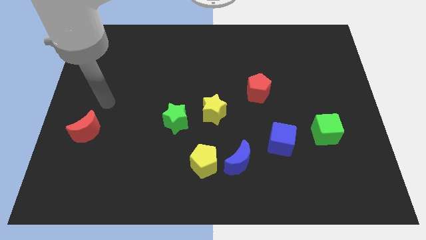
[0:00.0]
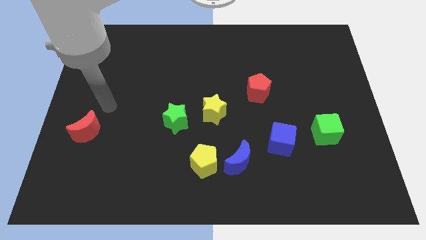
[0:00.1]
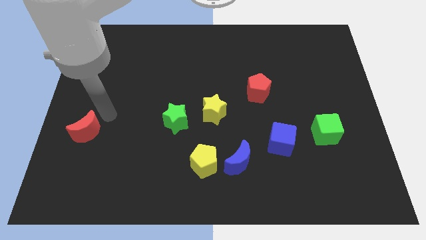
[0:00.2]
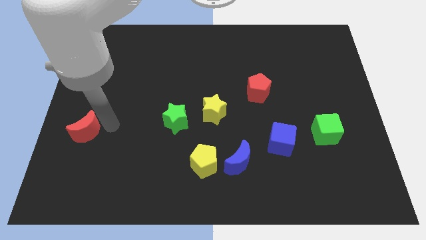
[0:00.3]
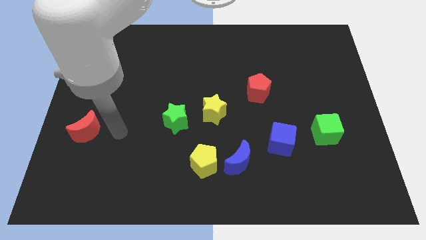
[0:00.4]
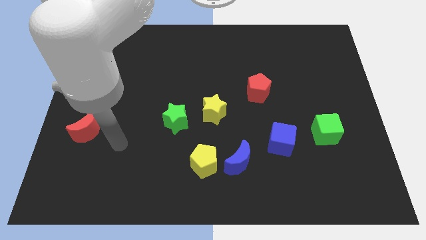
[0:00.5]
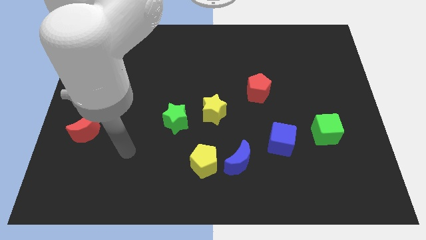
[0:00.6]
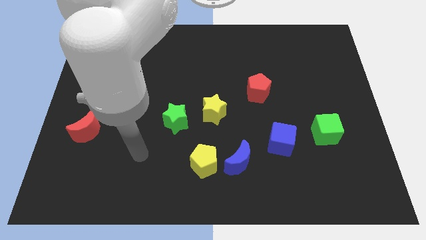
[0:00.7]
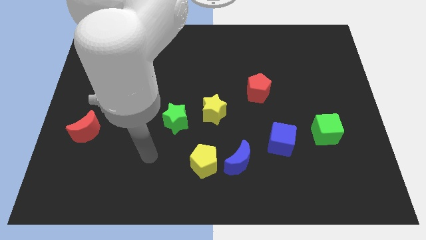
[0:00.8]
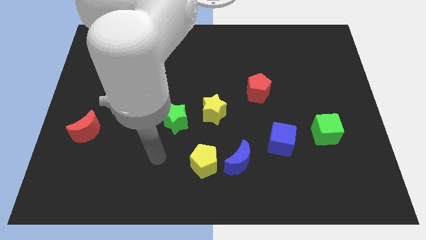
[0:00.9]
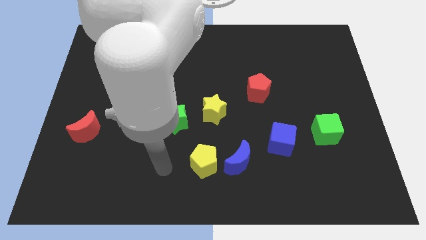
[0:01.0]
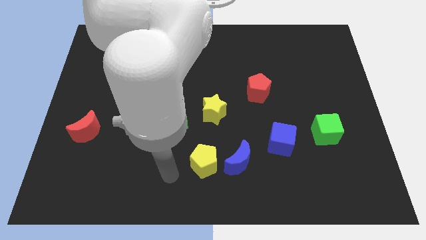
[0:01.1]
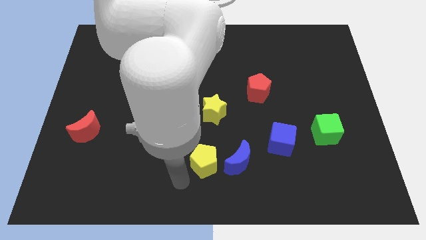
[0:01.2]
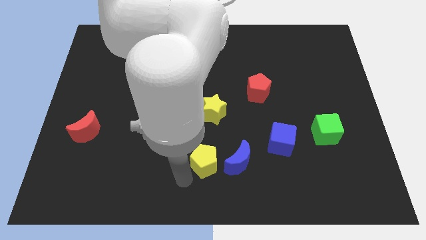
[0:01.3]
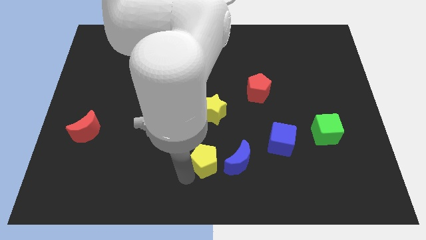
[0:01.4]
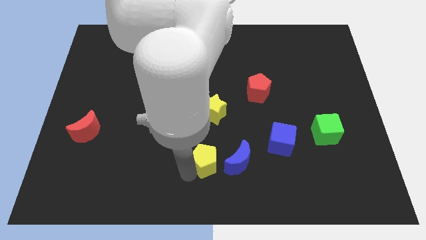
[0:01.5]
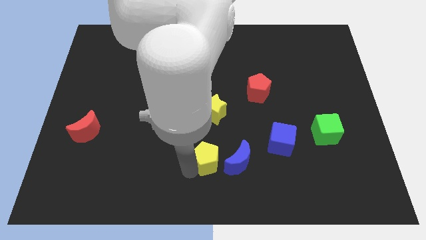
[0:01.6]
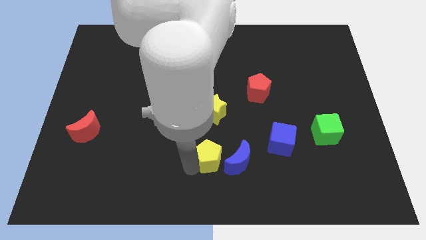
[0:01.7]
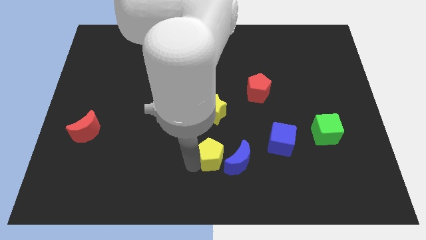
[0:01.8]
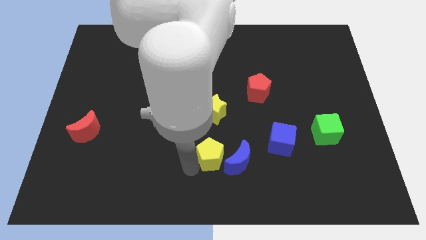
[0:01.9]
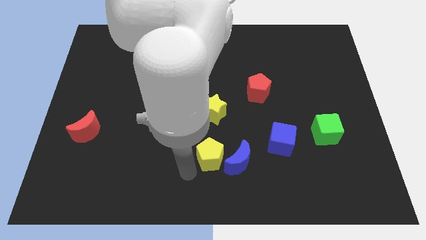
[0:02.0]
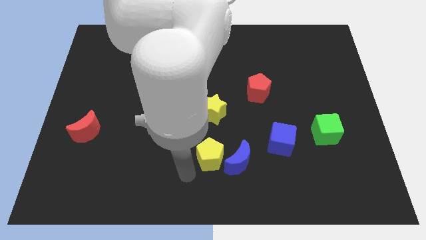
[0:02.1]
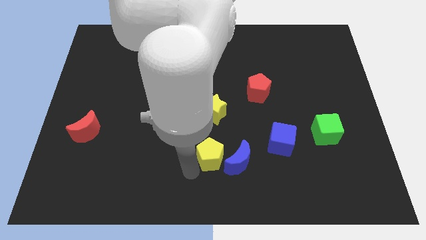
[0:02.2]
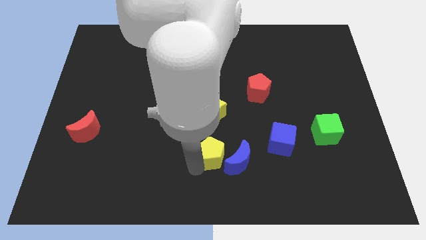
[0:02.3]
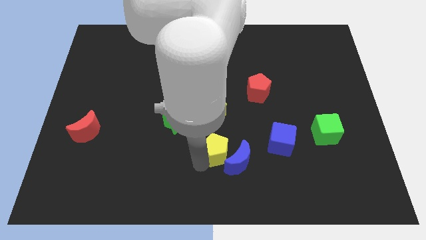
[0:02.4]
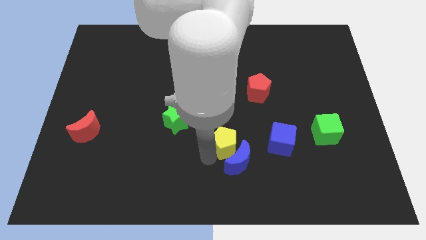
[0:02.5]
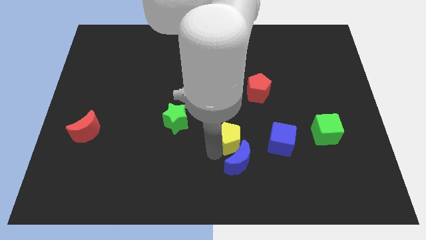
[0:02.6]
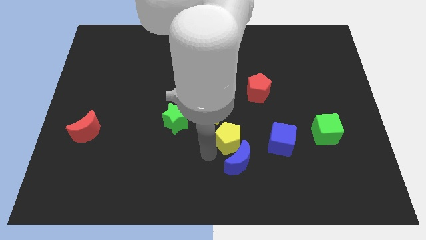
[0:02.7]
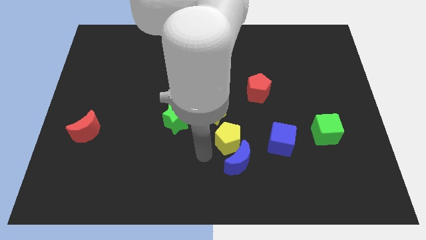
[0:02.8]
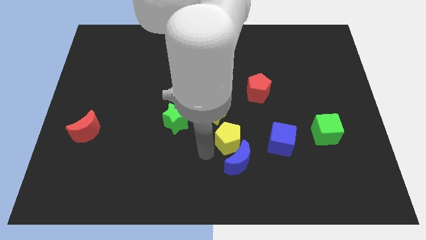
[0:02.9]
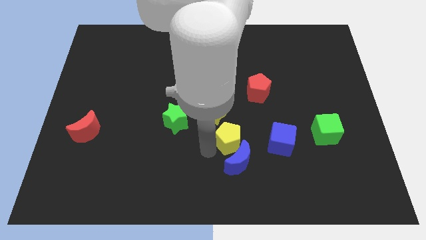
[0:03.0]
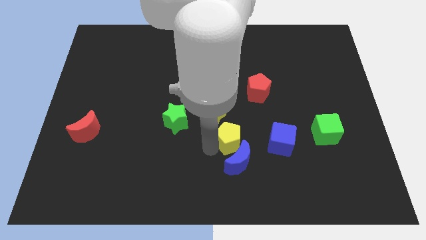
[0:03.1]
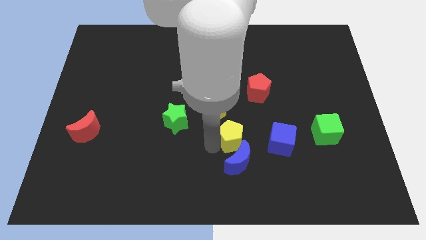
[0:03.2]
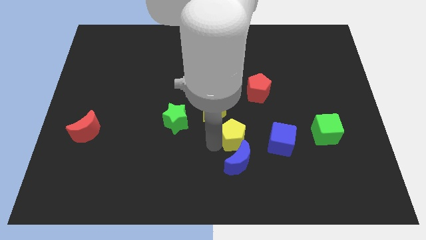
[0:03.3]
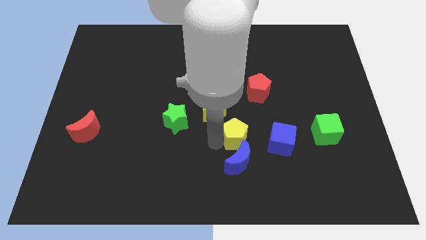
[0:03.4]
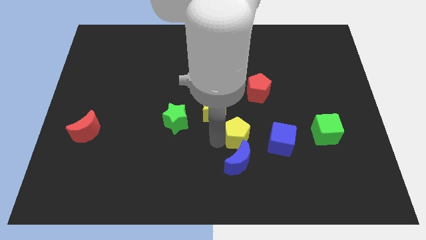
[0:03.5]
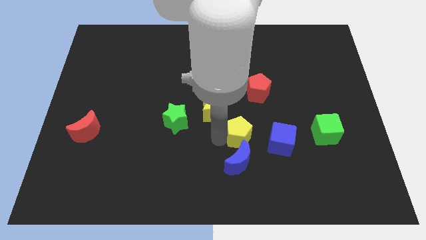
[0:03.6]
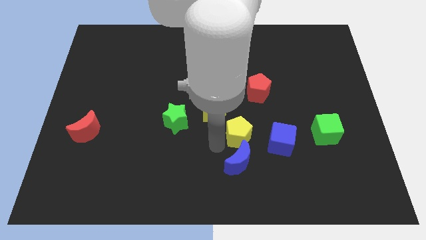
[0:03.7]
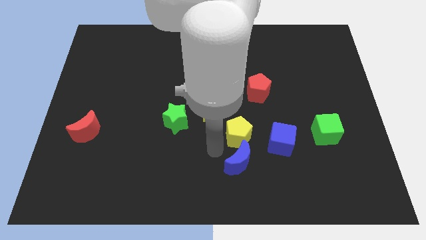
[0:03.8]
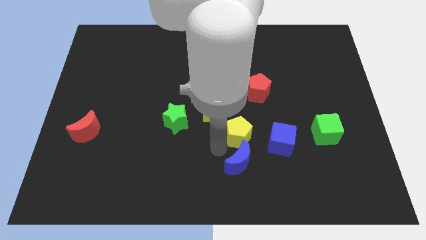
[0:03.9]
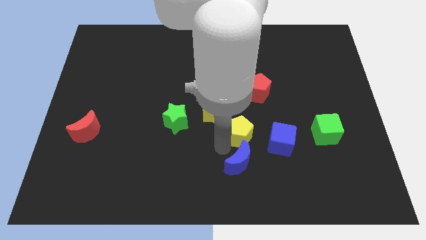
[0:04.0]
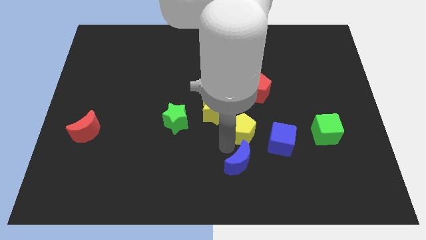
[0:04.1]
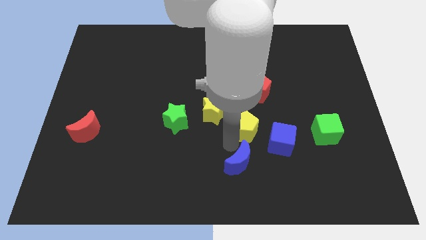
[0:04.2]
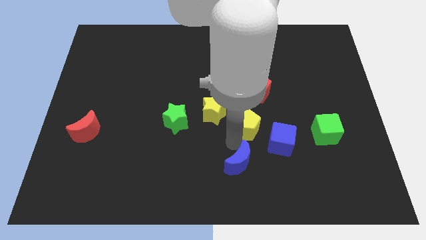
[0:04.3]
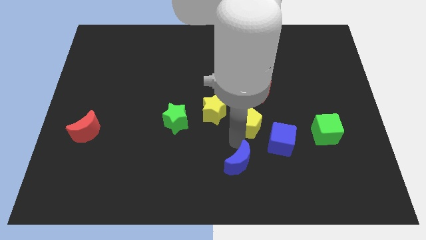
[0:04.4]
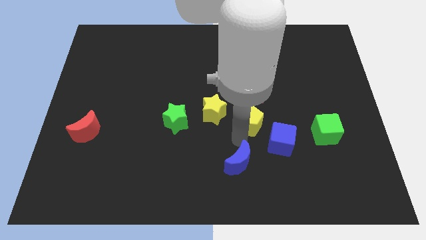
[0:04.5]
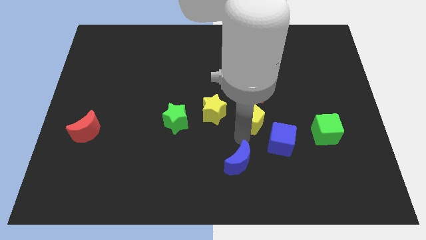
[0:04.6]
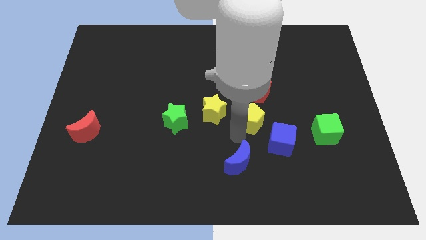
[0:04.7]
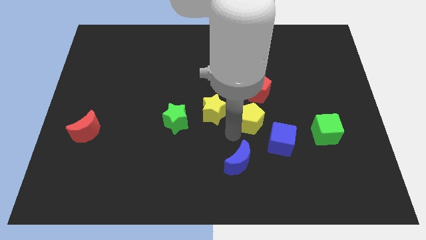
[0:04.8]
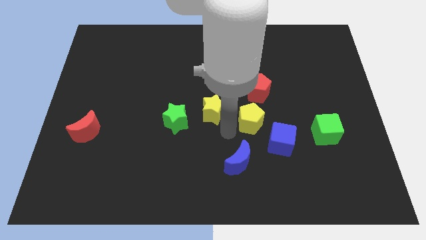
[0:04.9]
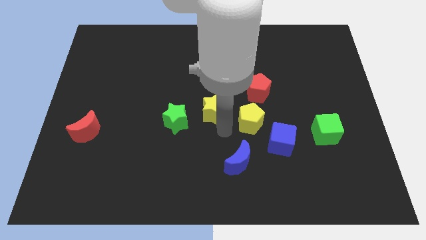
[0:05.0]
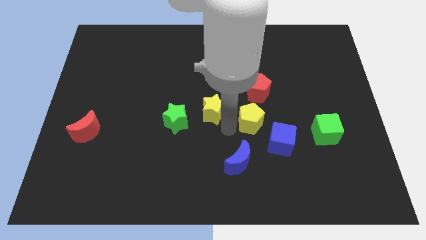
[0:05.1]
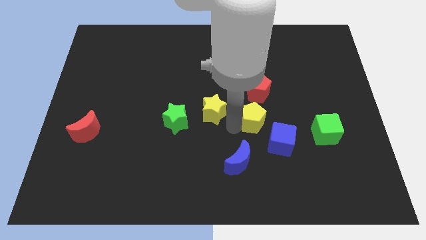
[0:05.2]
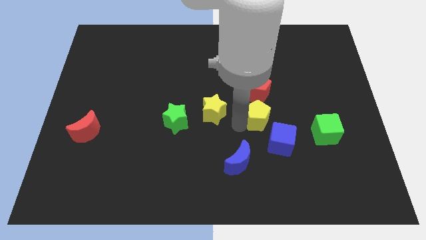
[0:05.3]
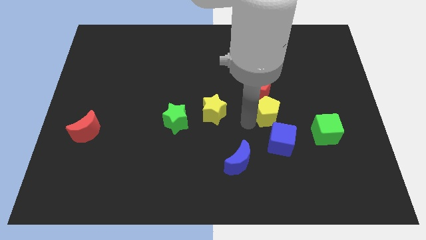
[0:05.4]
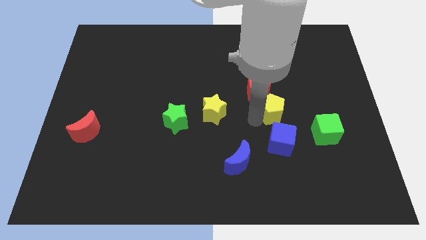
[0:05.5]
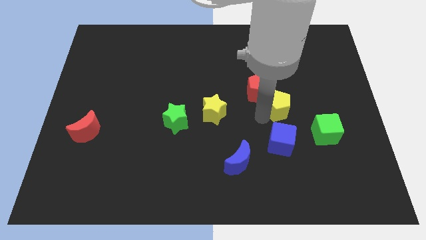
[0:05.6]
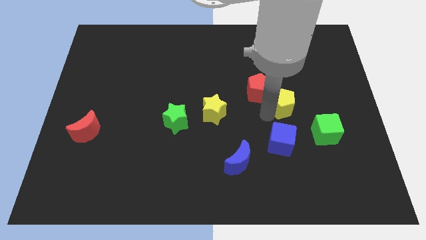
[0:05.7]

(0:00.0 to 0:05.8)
push the yellow pentagon right of the red pentagon

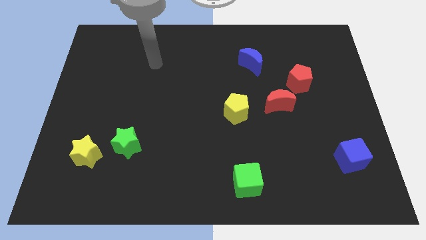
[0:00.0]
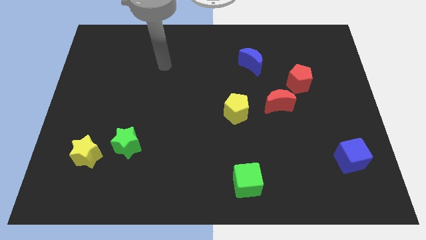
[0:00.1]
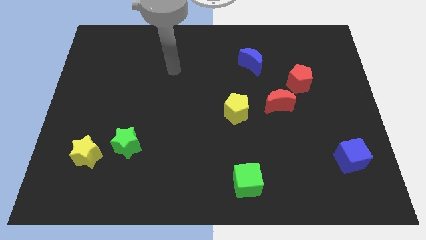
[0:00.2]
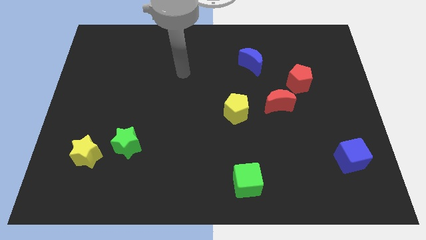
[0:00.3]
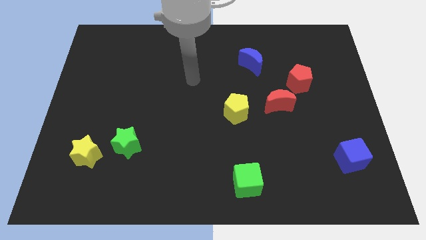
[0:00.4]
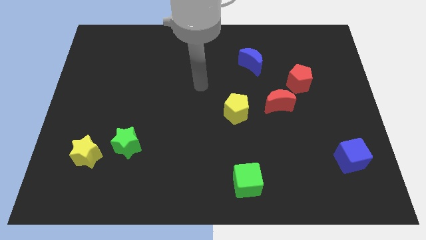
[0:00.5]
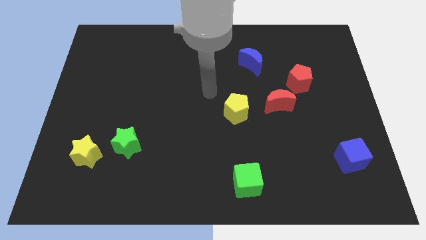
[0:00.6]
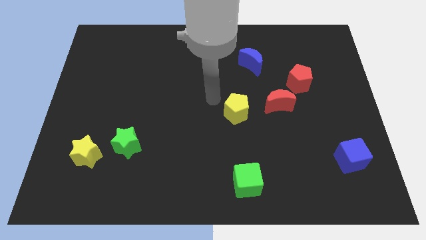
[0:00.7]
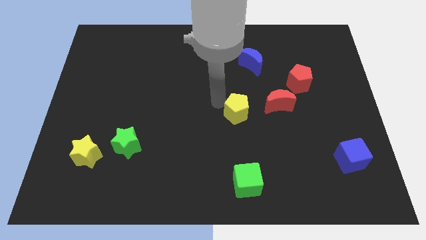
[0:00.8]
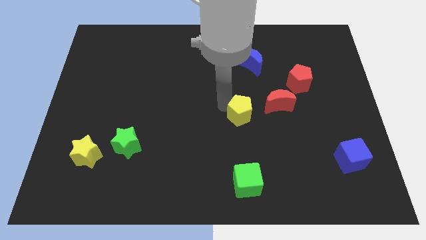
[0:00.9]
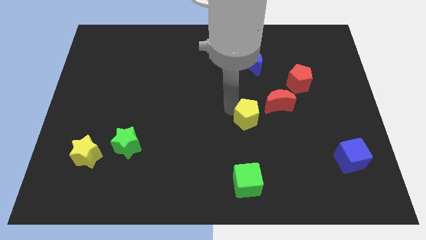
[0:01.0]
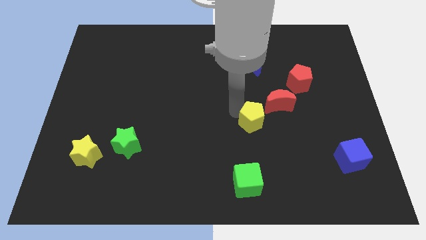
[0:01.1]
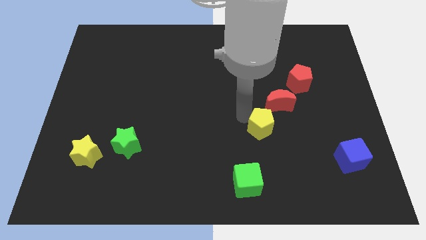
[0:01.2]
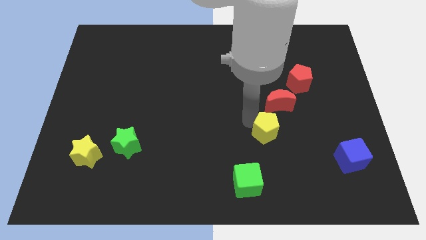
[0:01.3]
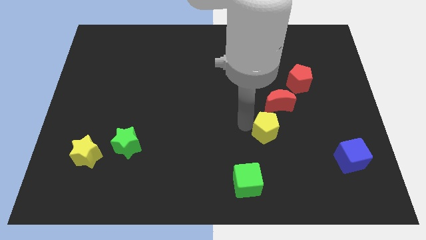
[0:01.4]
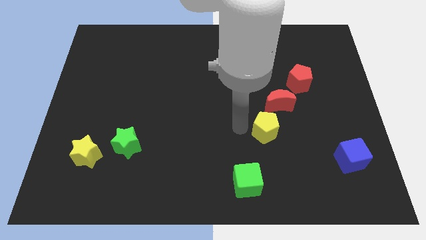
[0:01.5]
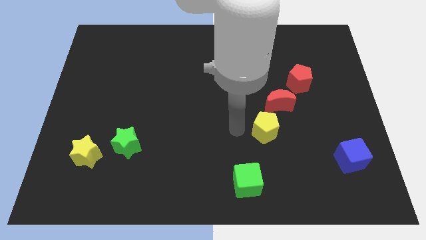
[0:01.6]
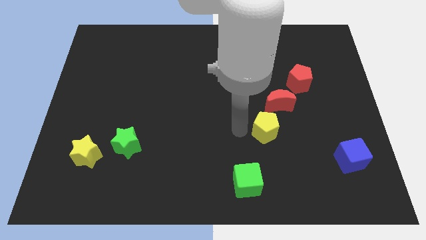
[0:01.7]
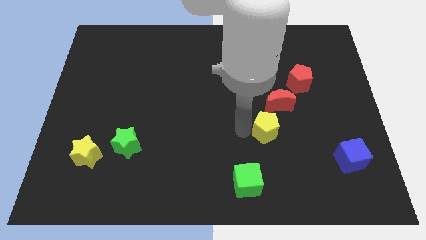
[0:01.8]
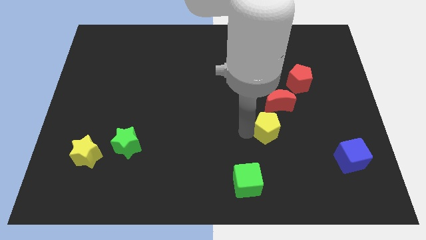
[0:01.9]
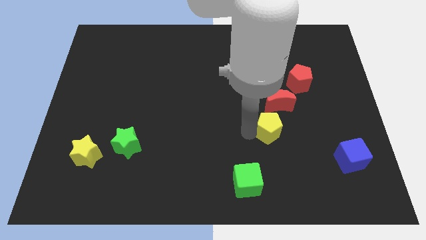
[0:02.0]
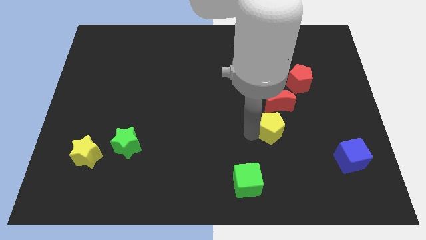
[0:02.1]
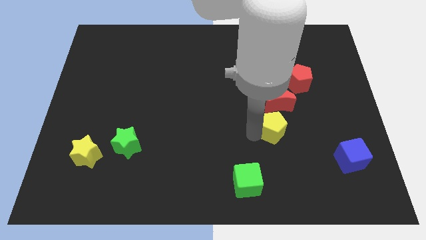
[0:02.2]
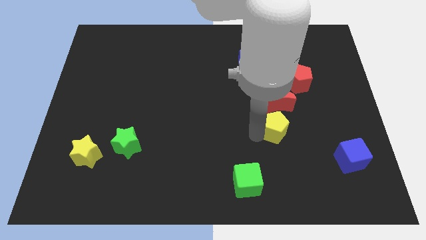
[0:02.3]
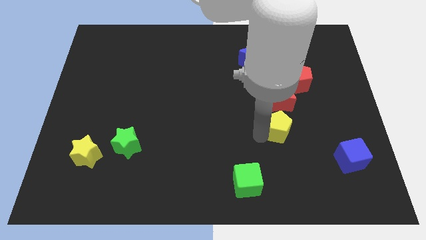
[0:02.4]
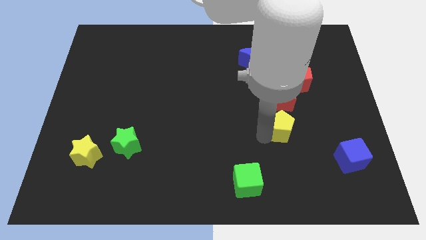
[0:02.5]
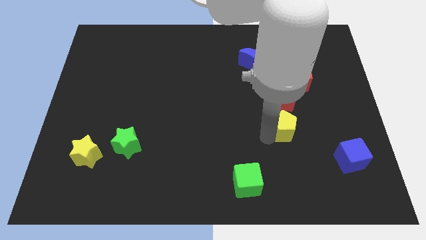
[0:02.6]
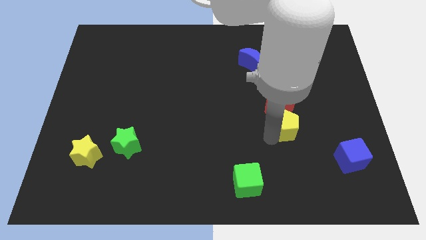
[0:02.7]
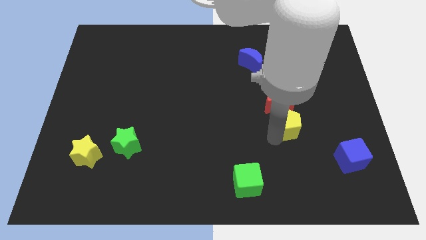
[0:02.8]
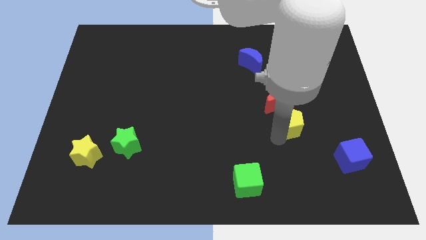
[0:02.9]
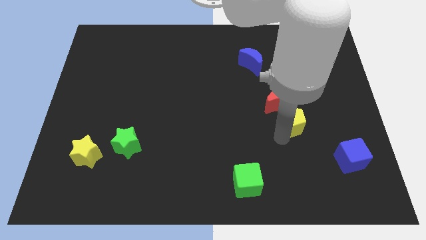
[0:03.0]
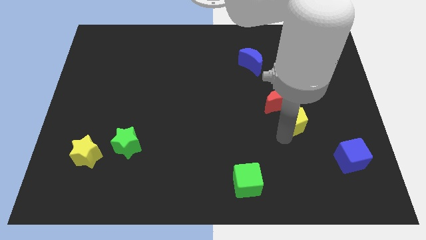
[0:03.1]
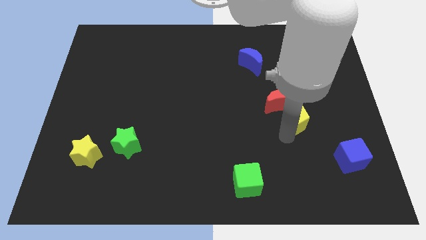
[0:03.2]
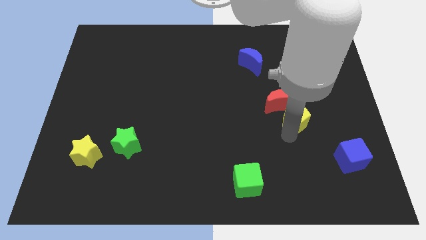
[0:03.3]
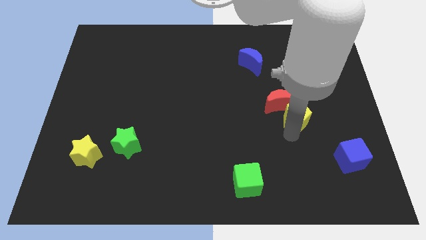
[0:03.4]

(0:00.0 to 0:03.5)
slide the yellow pentagon just right of the red moon
